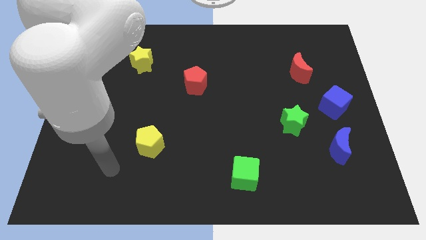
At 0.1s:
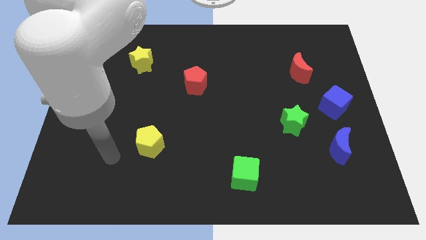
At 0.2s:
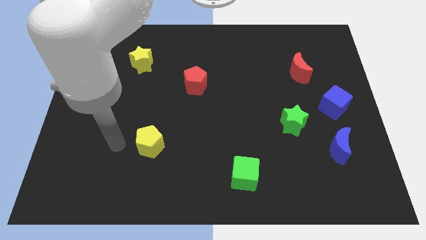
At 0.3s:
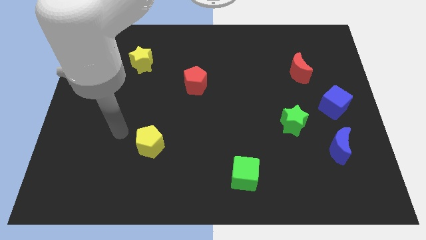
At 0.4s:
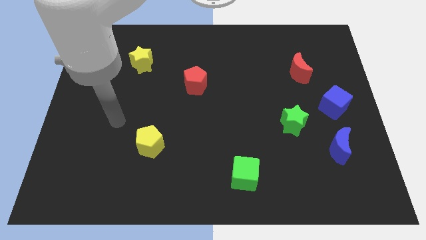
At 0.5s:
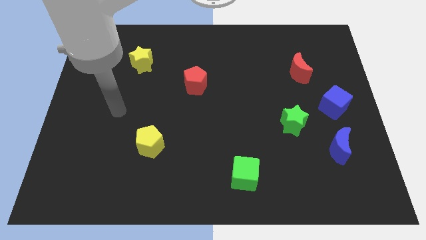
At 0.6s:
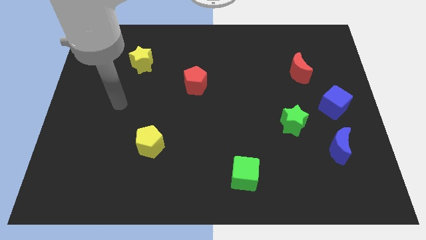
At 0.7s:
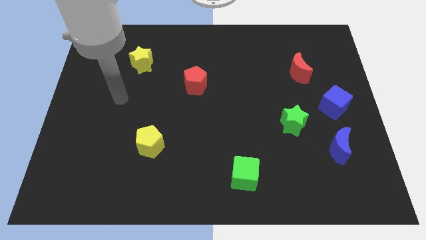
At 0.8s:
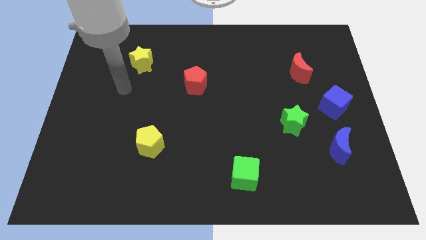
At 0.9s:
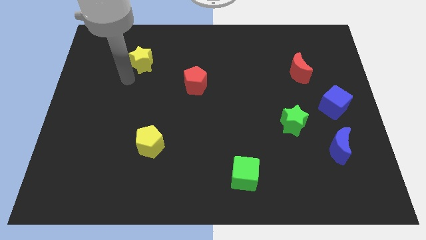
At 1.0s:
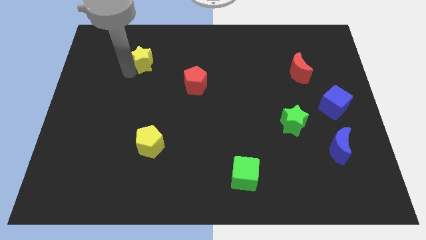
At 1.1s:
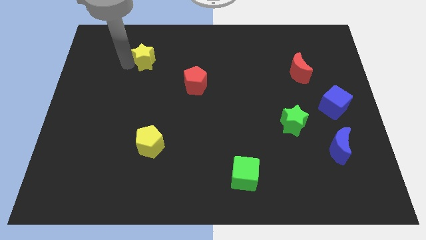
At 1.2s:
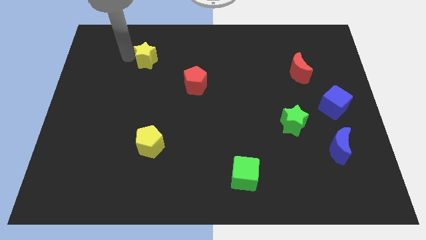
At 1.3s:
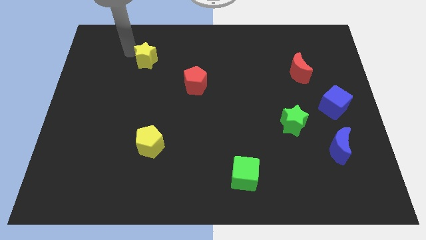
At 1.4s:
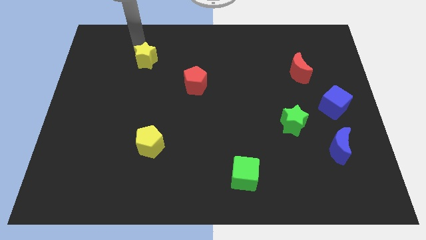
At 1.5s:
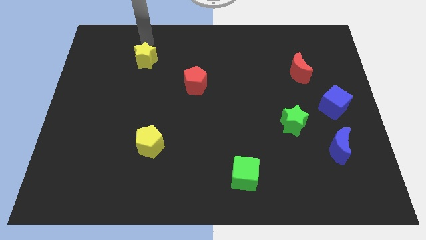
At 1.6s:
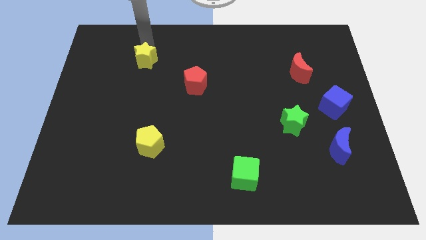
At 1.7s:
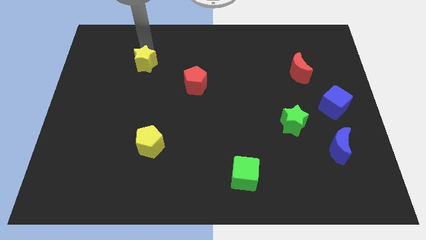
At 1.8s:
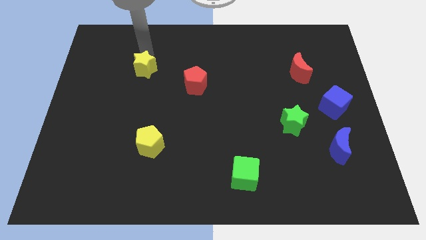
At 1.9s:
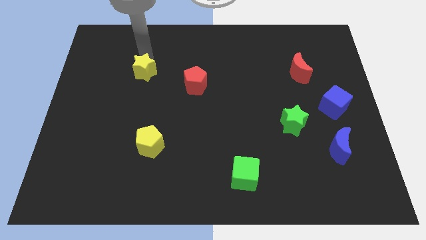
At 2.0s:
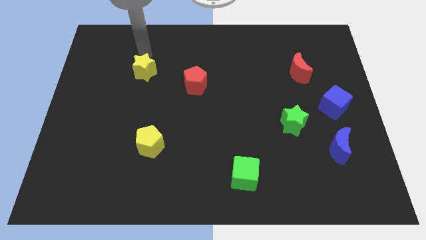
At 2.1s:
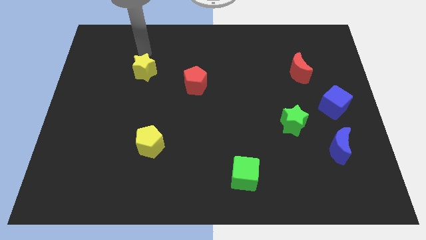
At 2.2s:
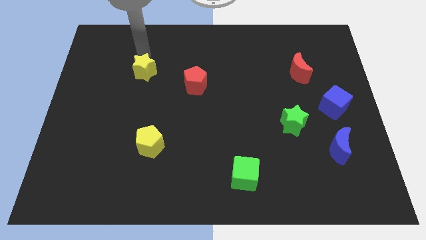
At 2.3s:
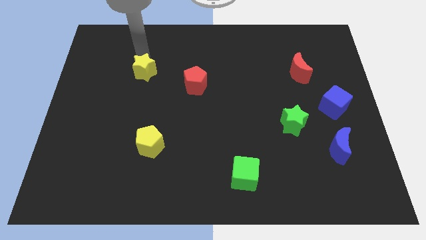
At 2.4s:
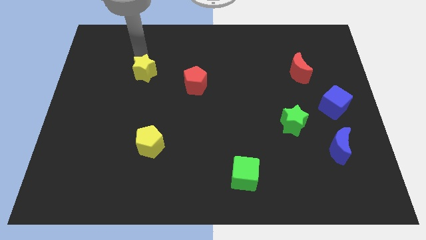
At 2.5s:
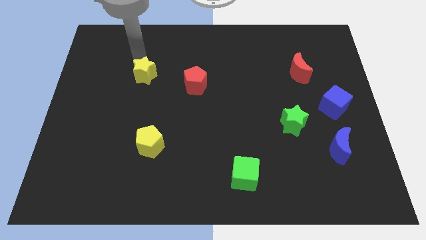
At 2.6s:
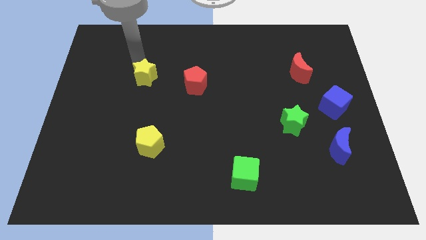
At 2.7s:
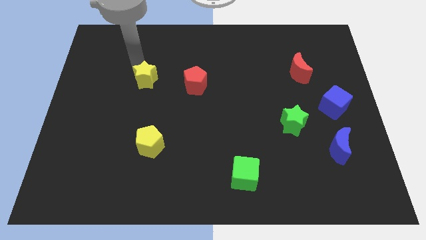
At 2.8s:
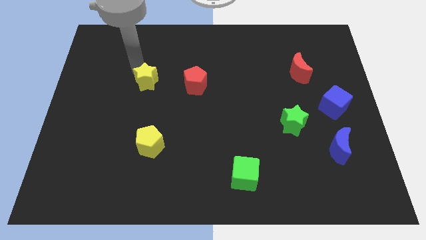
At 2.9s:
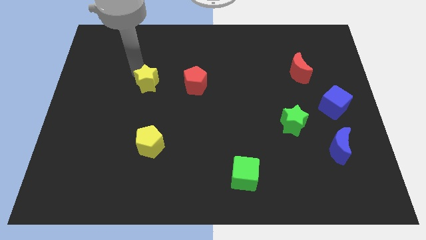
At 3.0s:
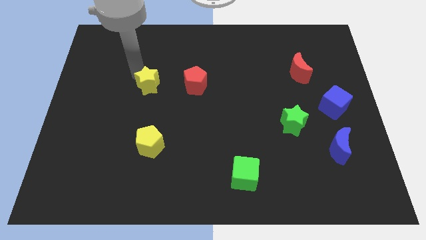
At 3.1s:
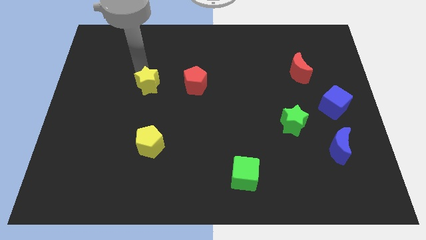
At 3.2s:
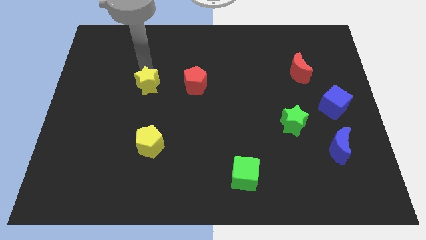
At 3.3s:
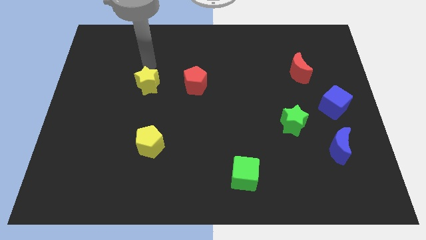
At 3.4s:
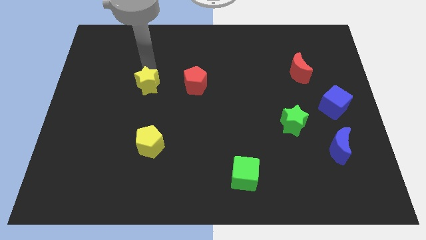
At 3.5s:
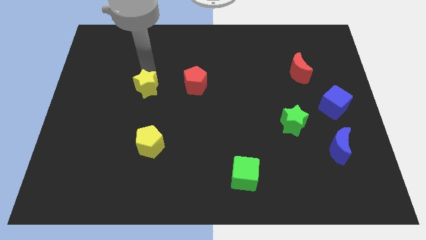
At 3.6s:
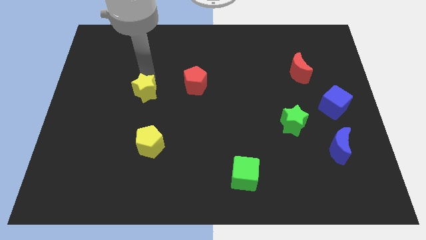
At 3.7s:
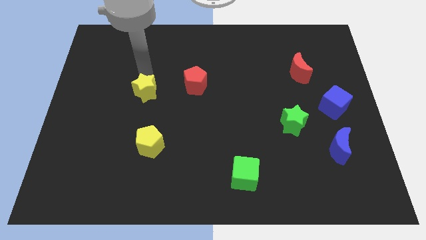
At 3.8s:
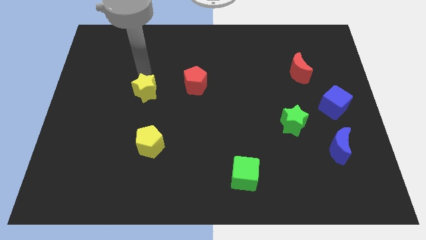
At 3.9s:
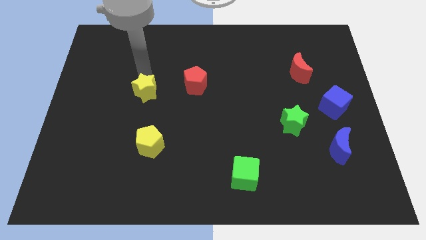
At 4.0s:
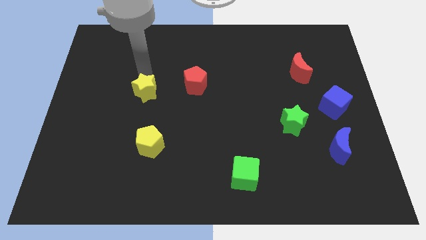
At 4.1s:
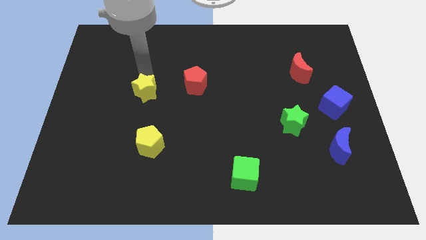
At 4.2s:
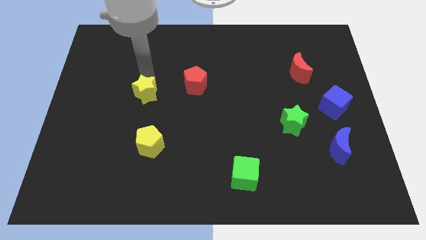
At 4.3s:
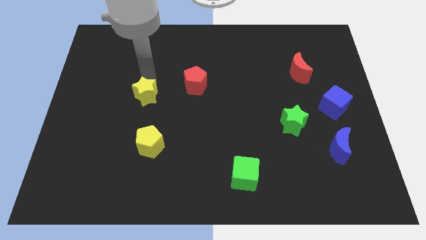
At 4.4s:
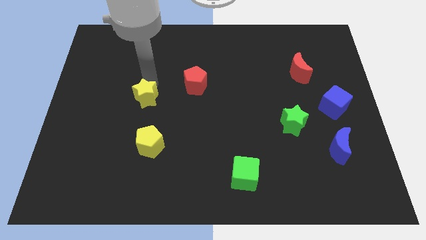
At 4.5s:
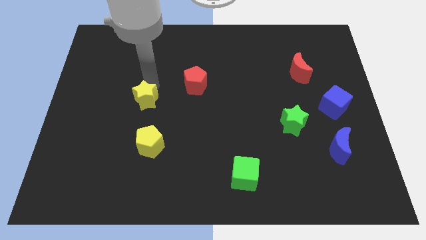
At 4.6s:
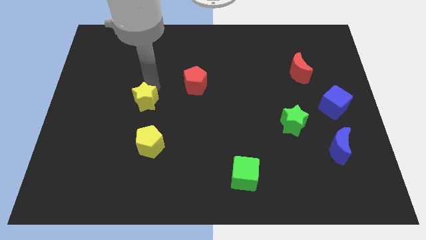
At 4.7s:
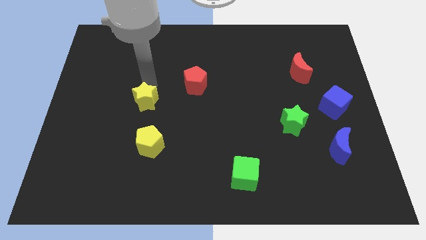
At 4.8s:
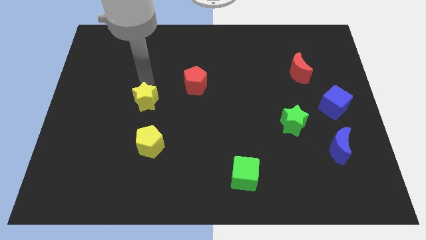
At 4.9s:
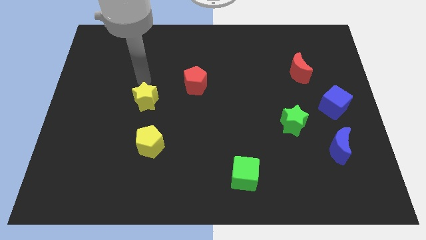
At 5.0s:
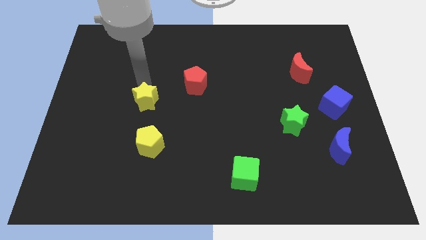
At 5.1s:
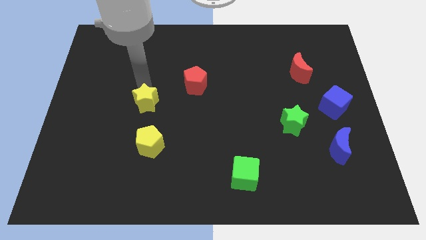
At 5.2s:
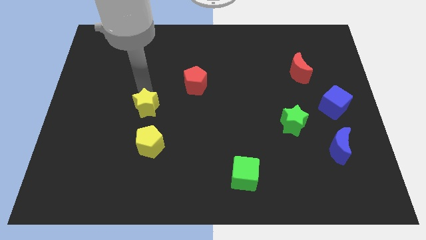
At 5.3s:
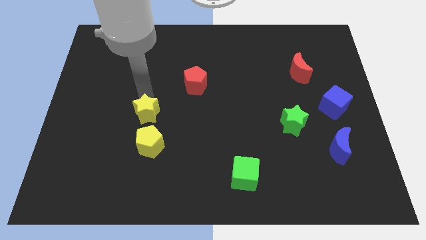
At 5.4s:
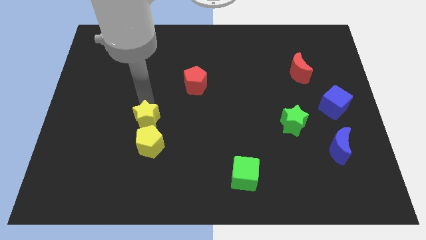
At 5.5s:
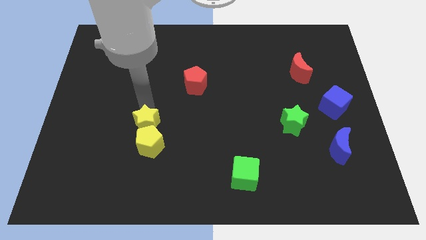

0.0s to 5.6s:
move the yellow star close to the yellow pentagon

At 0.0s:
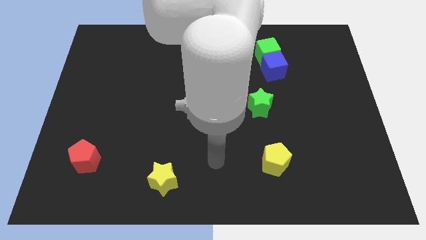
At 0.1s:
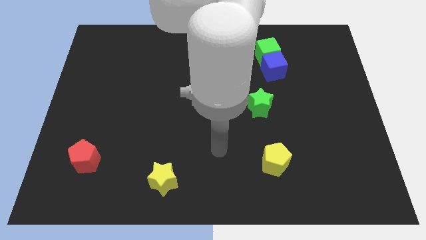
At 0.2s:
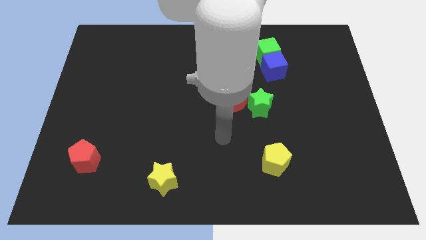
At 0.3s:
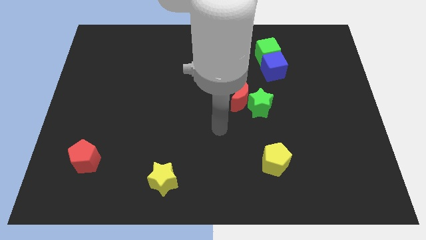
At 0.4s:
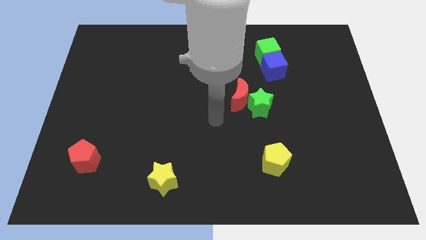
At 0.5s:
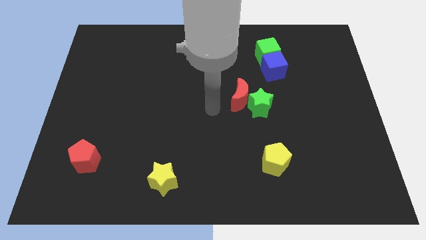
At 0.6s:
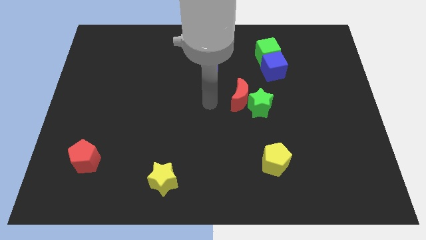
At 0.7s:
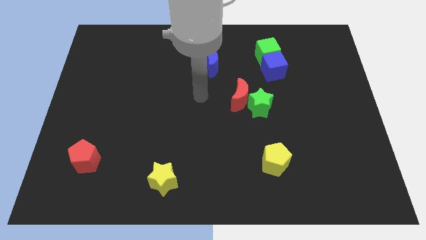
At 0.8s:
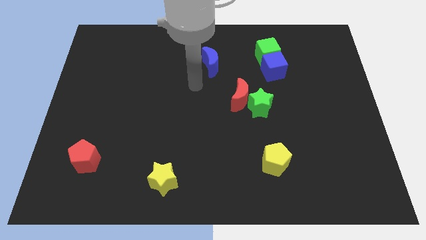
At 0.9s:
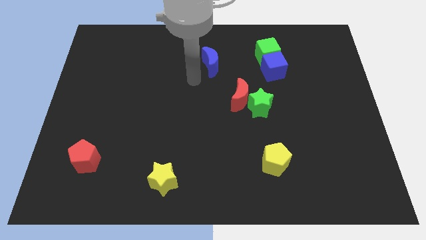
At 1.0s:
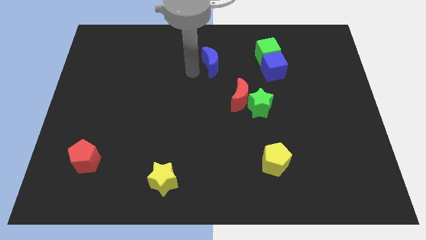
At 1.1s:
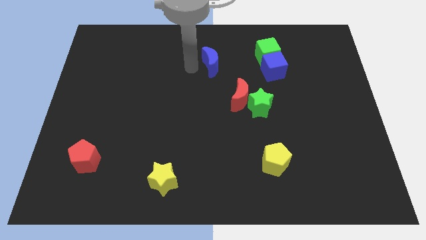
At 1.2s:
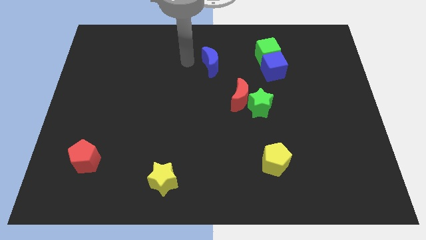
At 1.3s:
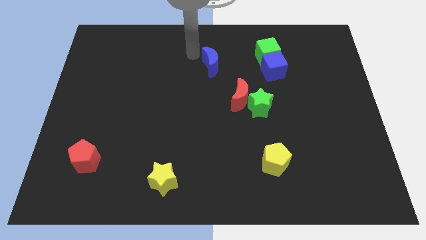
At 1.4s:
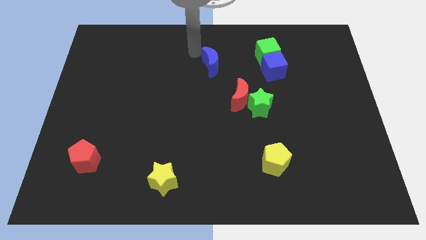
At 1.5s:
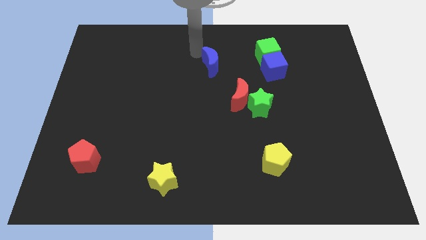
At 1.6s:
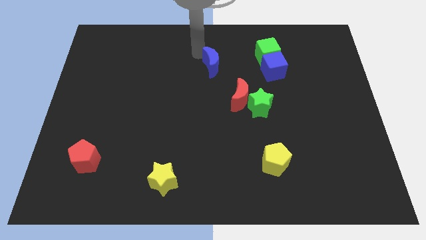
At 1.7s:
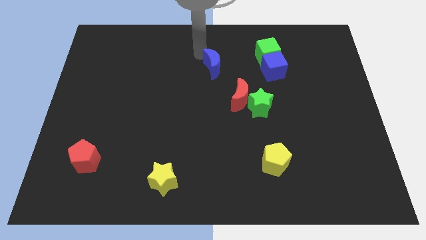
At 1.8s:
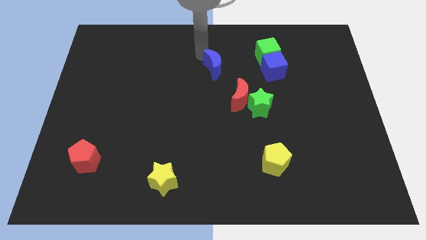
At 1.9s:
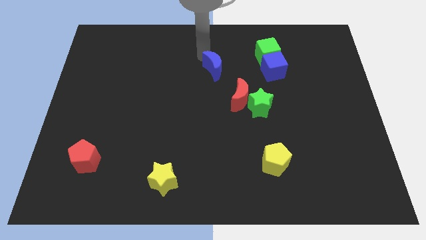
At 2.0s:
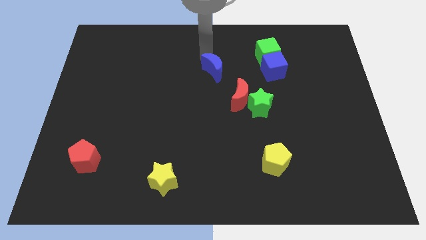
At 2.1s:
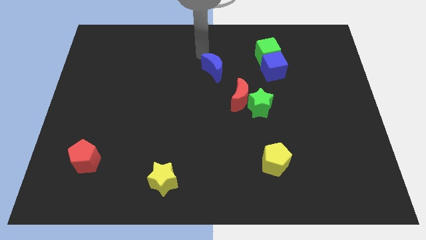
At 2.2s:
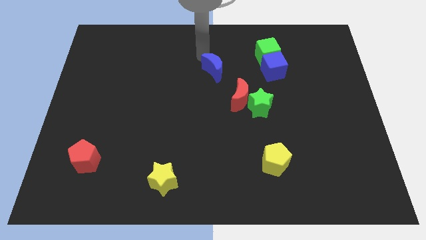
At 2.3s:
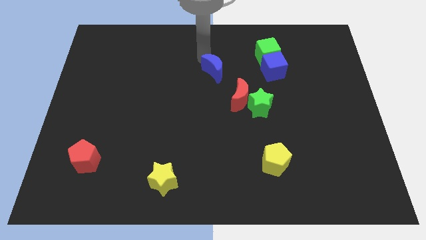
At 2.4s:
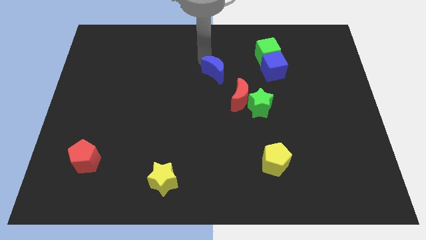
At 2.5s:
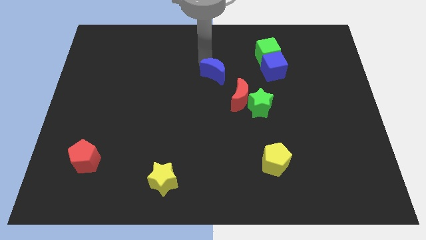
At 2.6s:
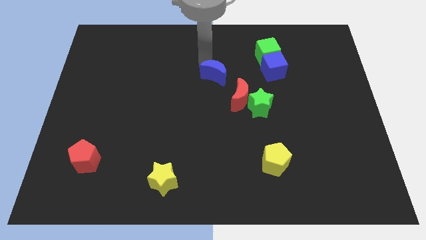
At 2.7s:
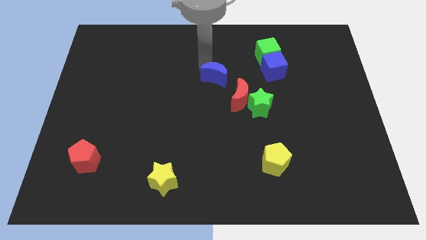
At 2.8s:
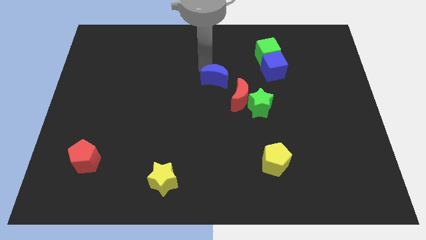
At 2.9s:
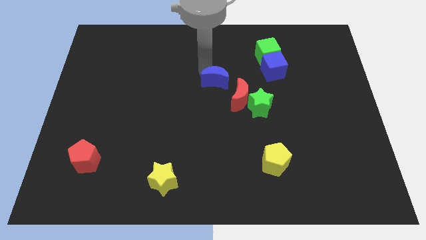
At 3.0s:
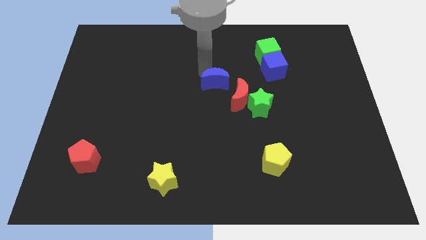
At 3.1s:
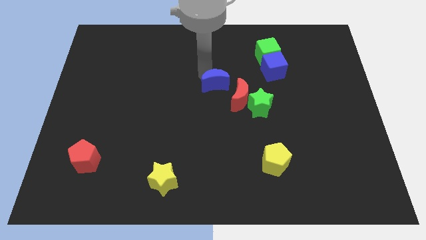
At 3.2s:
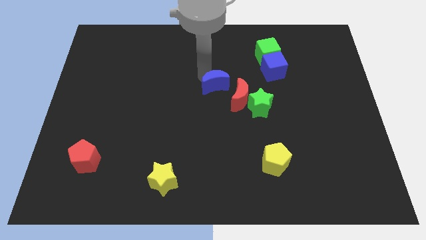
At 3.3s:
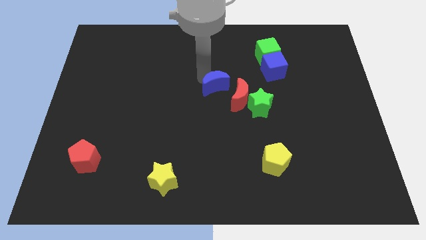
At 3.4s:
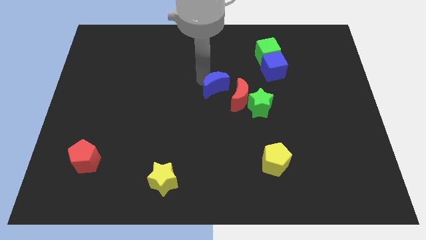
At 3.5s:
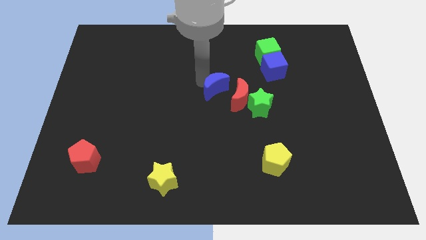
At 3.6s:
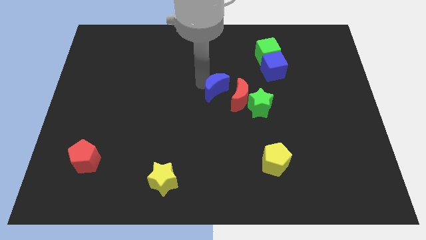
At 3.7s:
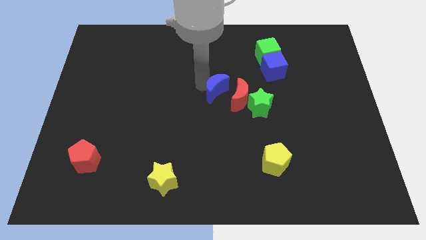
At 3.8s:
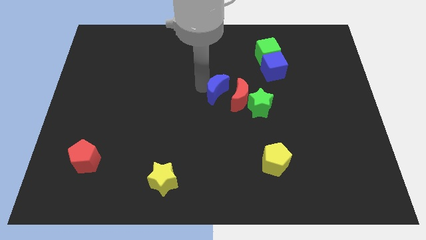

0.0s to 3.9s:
push the blue moon towards the red moon
